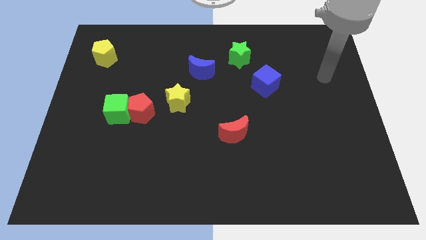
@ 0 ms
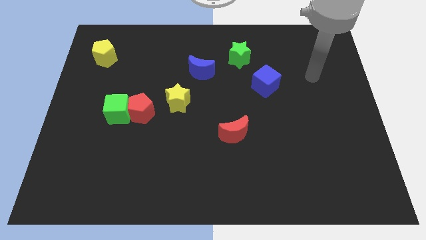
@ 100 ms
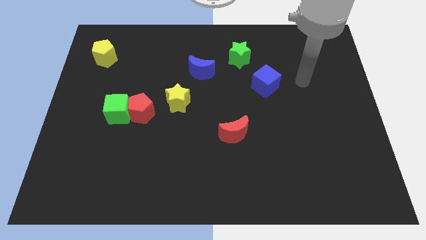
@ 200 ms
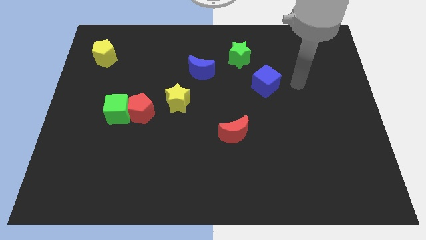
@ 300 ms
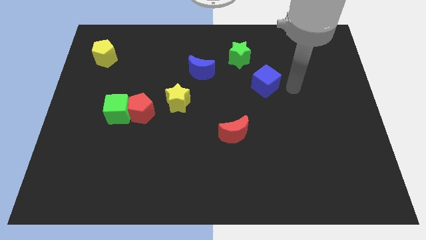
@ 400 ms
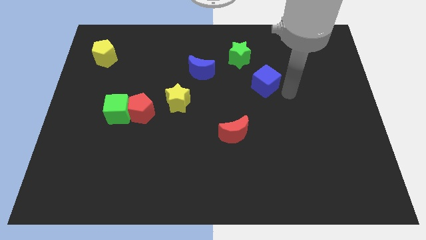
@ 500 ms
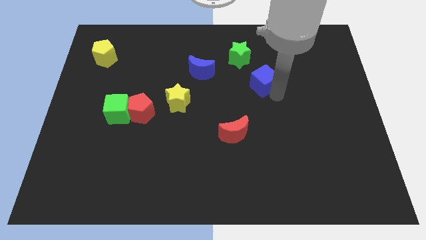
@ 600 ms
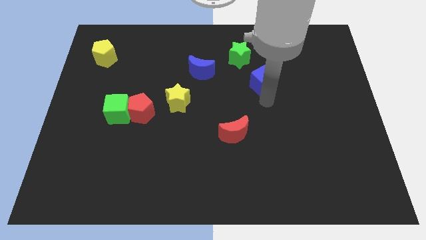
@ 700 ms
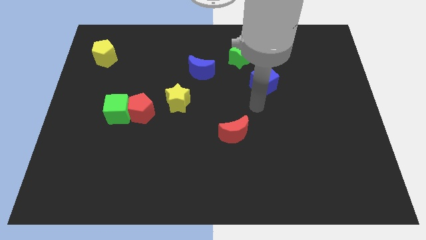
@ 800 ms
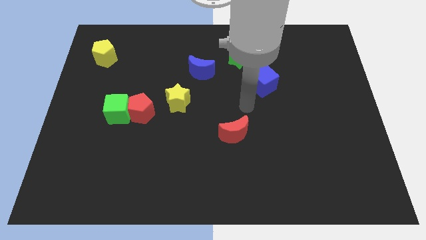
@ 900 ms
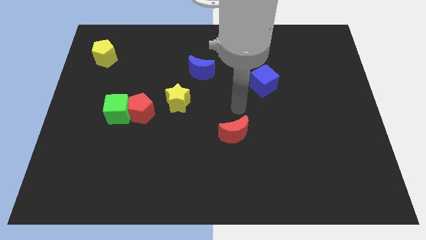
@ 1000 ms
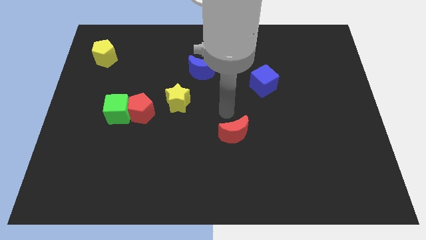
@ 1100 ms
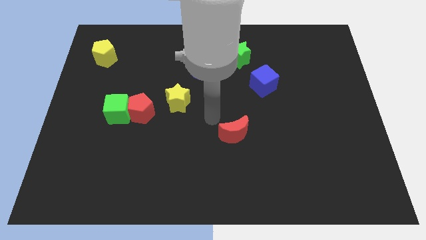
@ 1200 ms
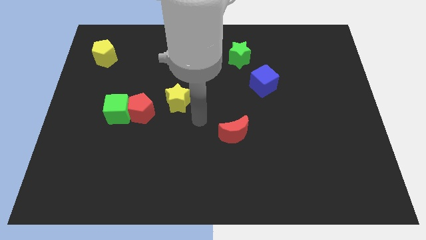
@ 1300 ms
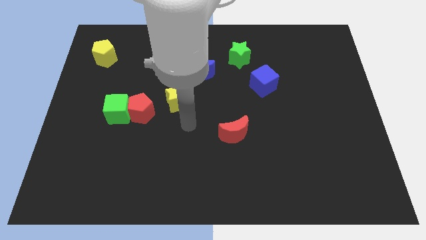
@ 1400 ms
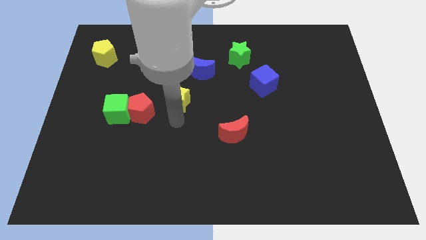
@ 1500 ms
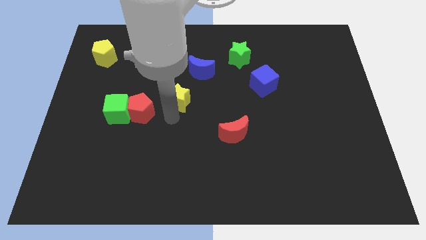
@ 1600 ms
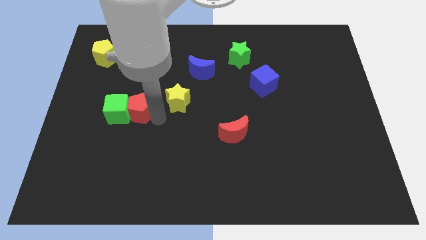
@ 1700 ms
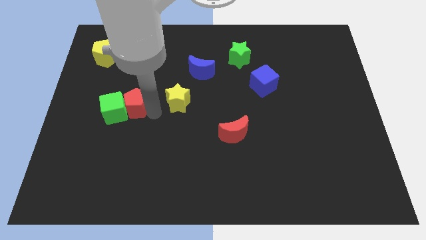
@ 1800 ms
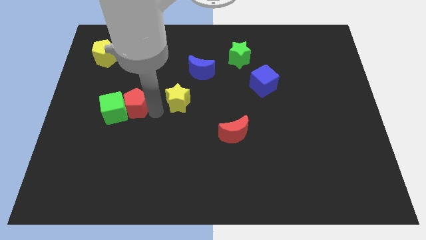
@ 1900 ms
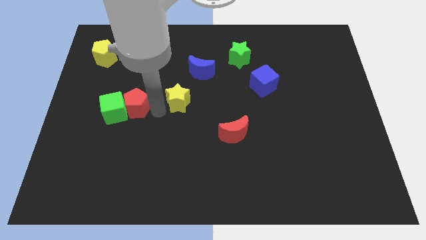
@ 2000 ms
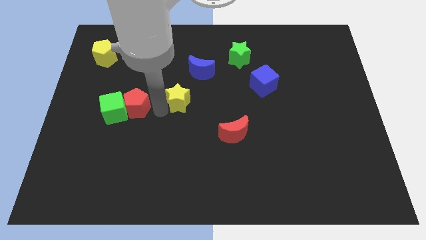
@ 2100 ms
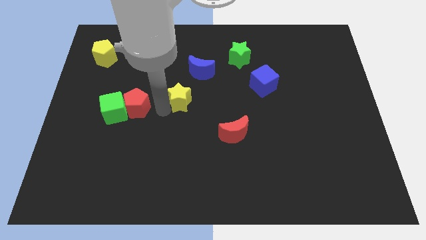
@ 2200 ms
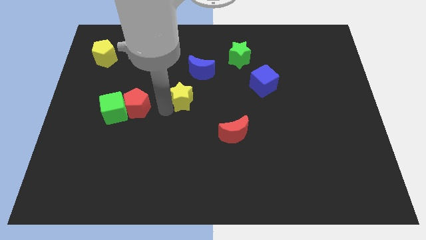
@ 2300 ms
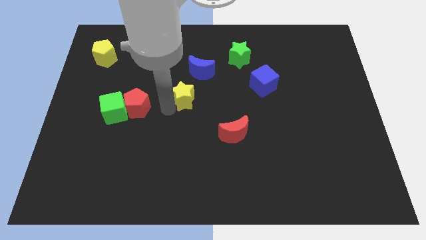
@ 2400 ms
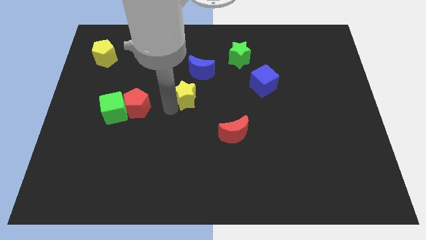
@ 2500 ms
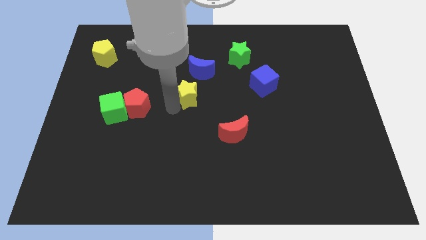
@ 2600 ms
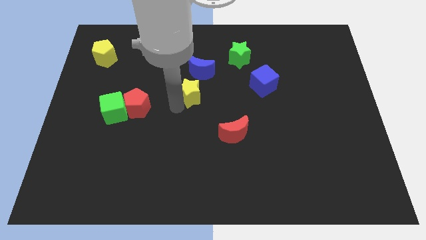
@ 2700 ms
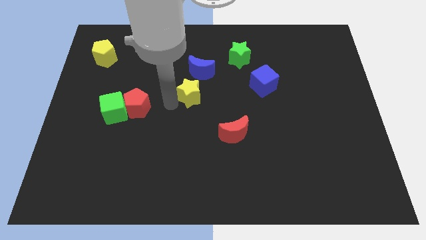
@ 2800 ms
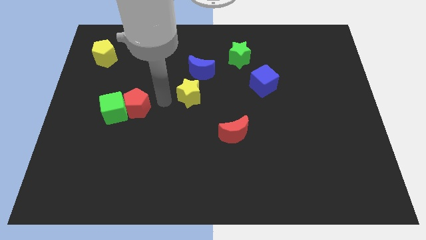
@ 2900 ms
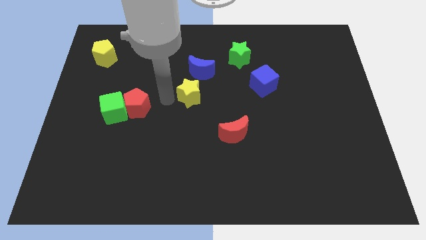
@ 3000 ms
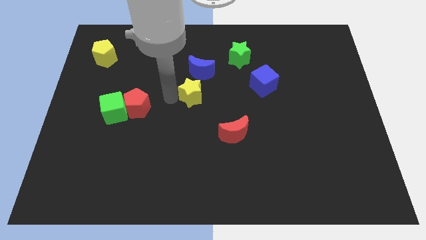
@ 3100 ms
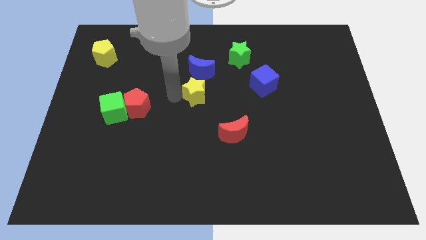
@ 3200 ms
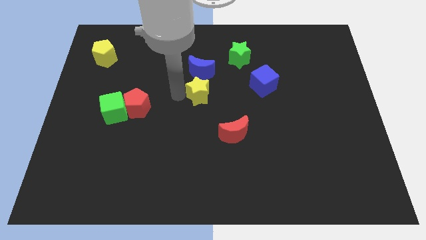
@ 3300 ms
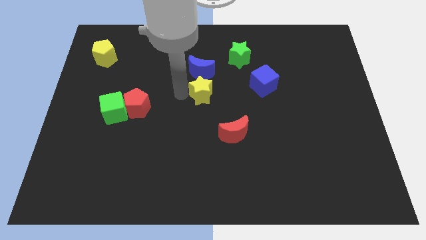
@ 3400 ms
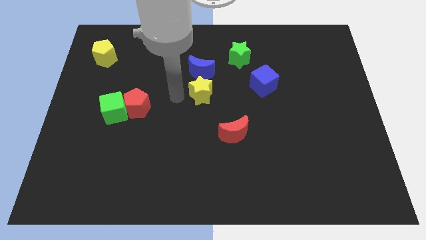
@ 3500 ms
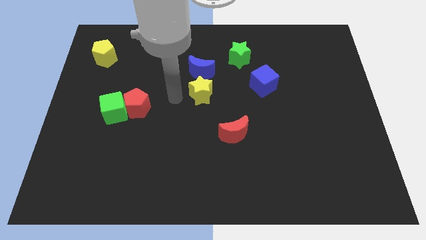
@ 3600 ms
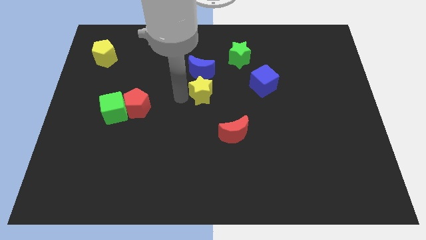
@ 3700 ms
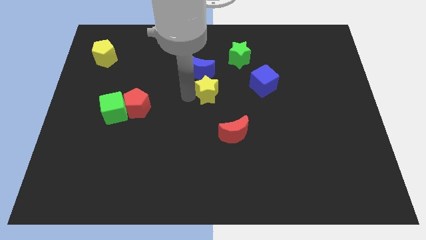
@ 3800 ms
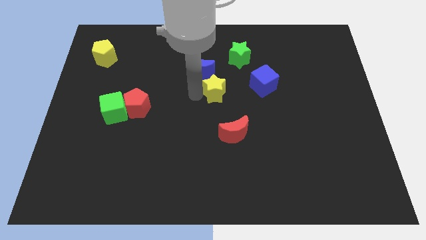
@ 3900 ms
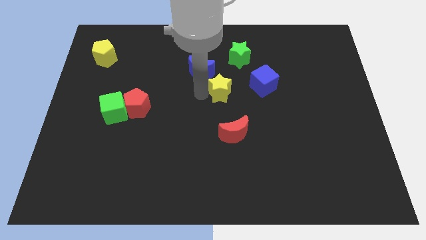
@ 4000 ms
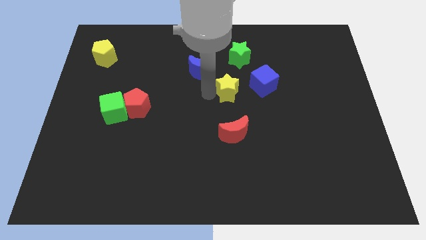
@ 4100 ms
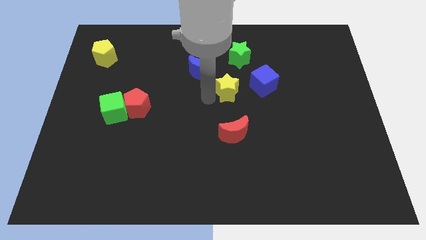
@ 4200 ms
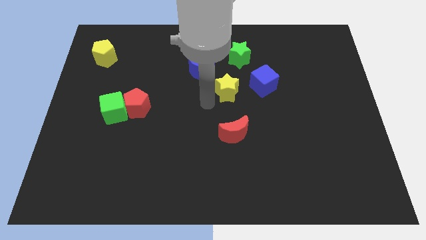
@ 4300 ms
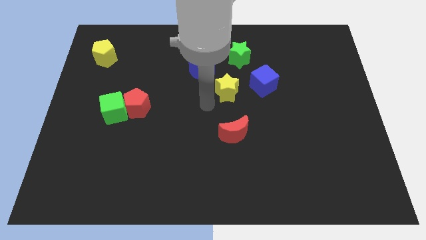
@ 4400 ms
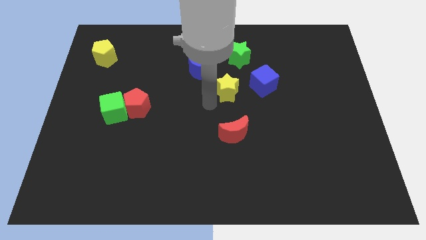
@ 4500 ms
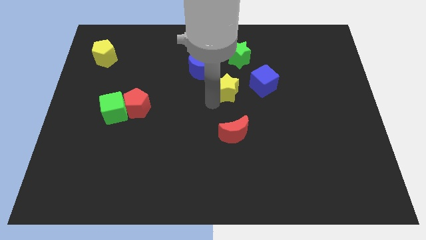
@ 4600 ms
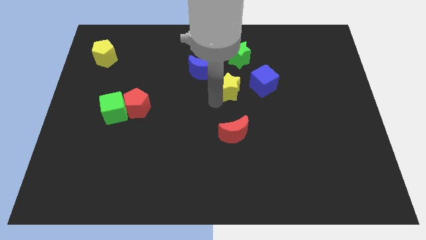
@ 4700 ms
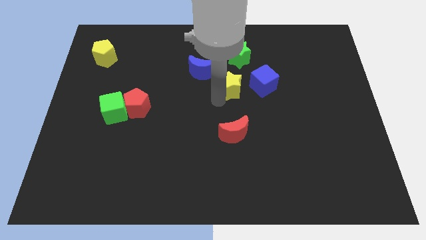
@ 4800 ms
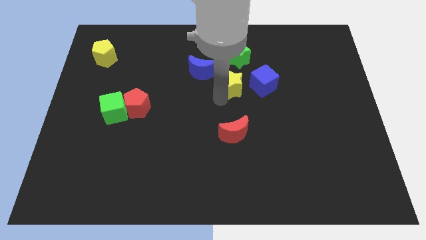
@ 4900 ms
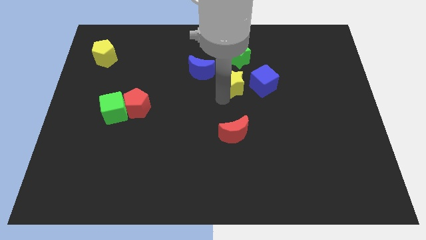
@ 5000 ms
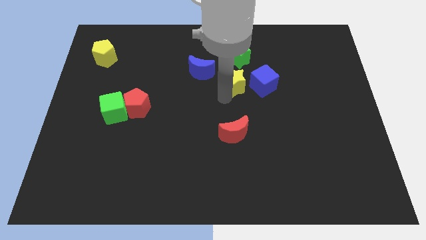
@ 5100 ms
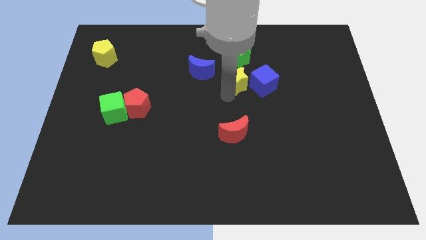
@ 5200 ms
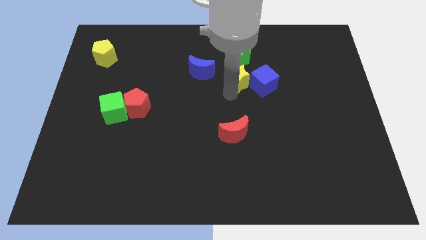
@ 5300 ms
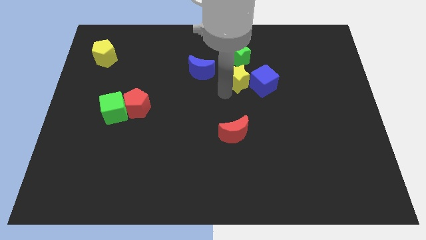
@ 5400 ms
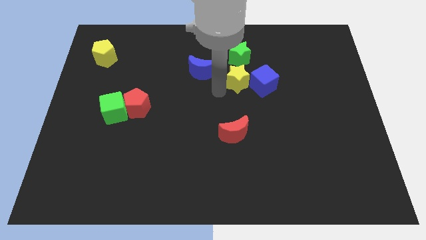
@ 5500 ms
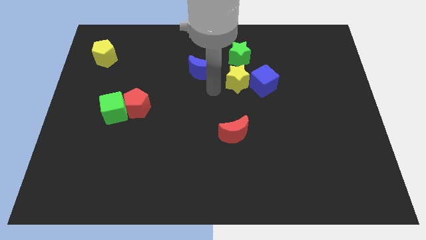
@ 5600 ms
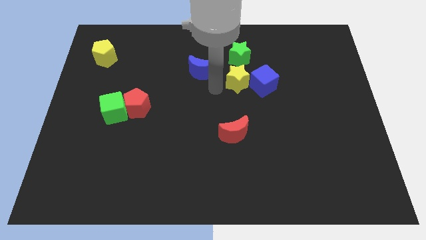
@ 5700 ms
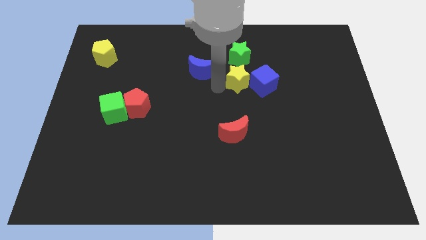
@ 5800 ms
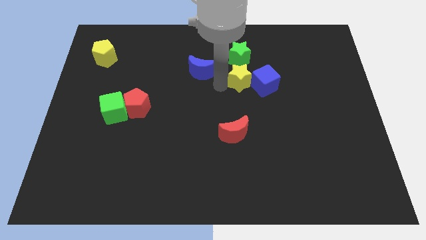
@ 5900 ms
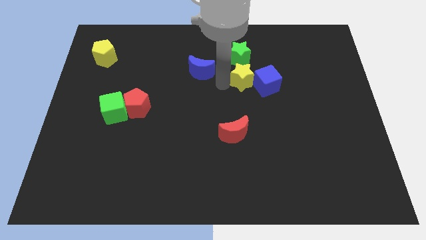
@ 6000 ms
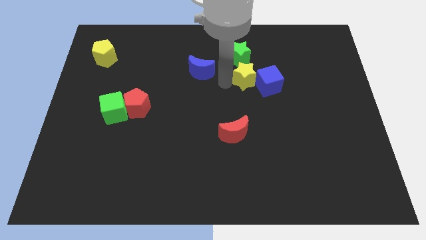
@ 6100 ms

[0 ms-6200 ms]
push the yellow star to the bottom right of the green star
